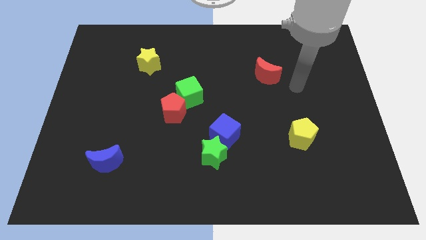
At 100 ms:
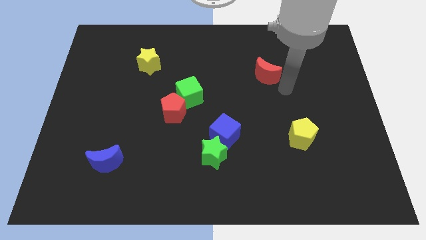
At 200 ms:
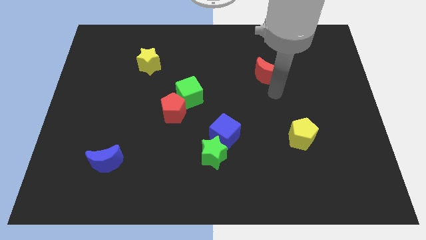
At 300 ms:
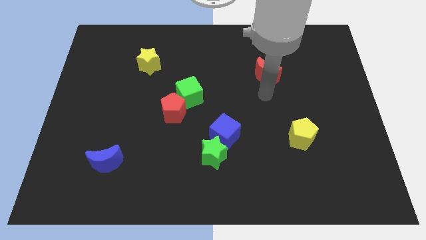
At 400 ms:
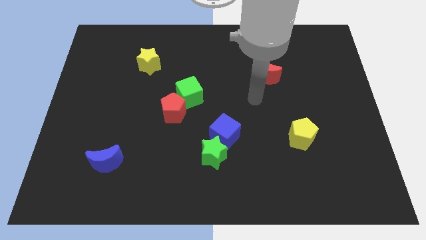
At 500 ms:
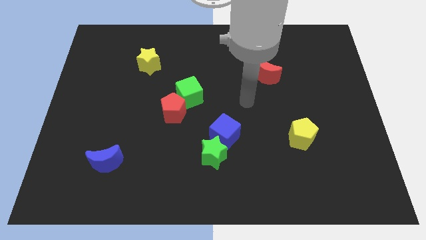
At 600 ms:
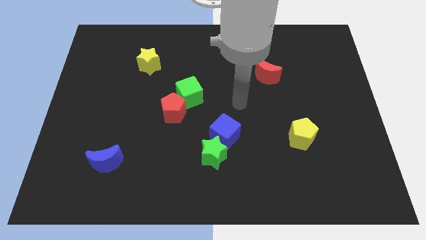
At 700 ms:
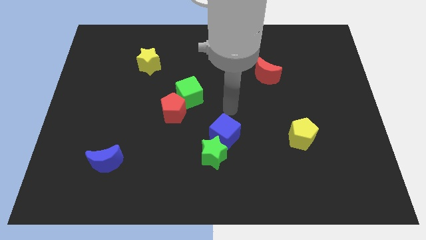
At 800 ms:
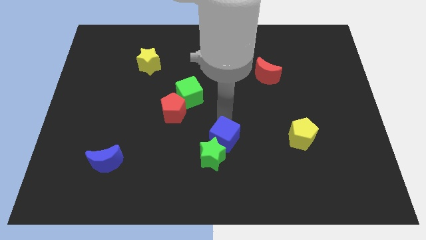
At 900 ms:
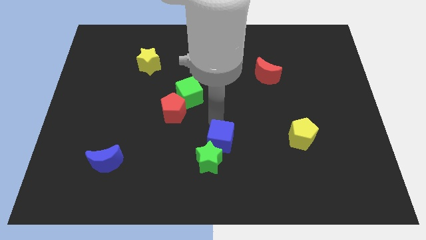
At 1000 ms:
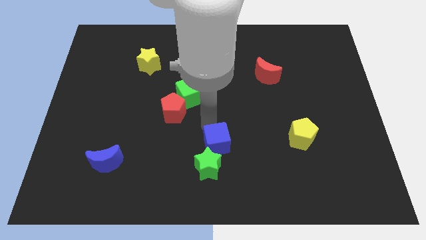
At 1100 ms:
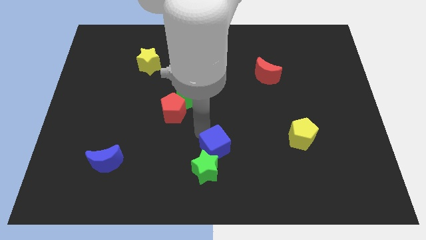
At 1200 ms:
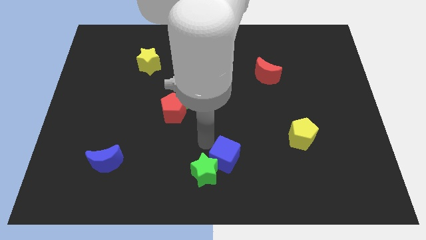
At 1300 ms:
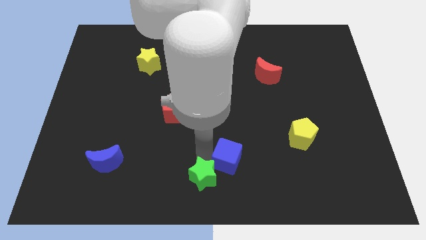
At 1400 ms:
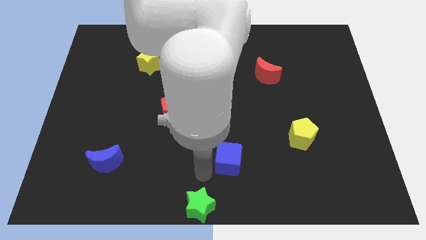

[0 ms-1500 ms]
move the blue cube away from the green star

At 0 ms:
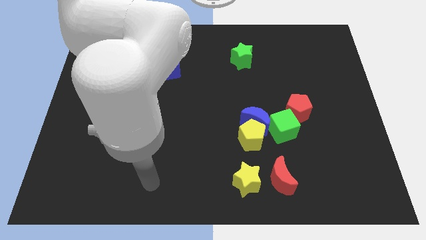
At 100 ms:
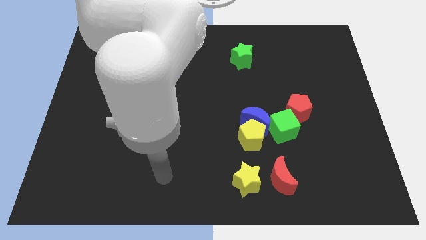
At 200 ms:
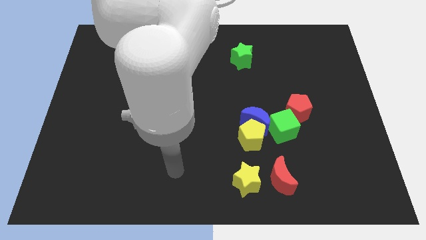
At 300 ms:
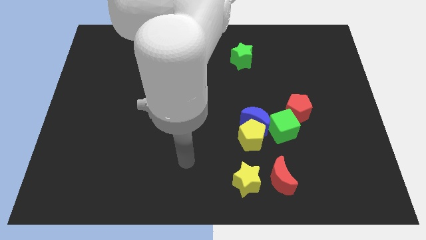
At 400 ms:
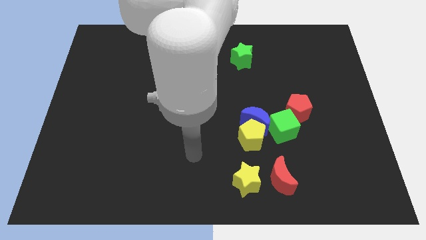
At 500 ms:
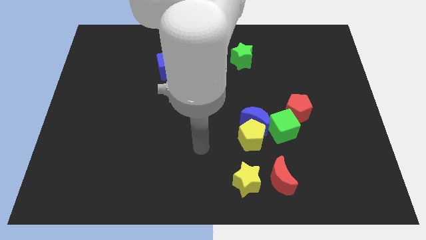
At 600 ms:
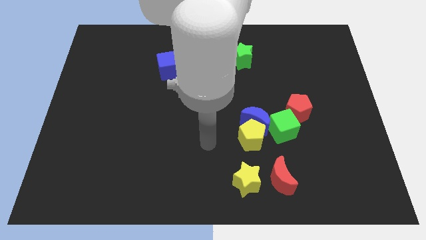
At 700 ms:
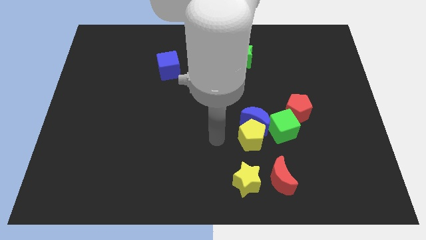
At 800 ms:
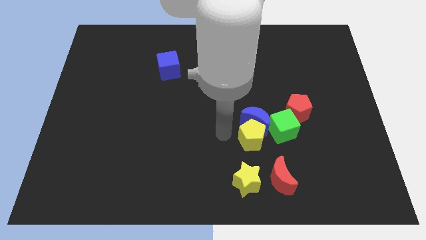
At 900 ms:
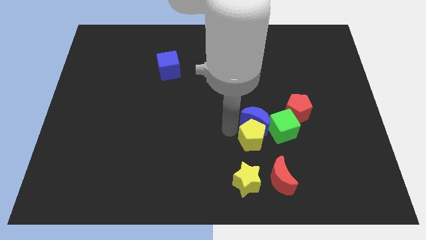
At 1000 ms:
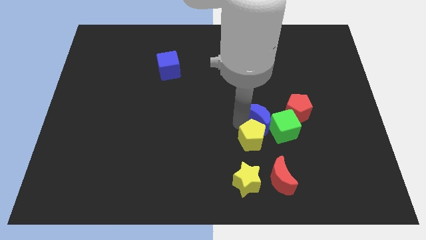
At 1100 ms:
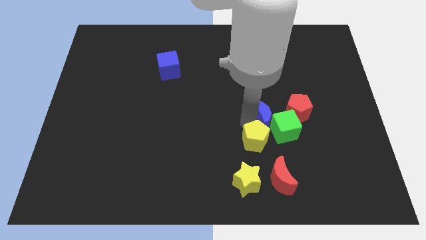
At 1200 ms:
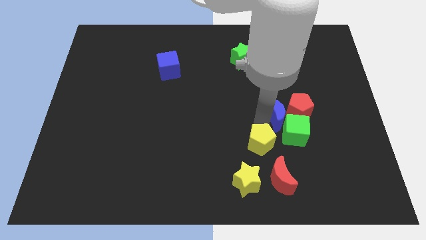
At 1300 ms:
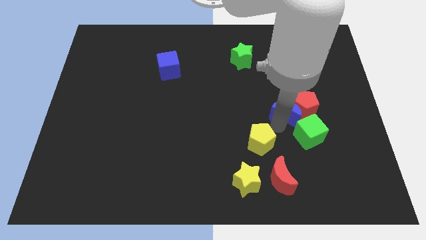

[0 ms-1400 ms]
pull the yellow pentagon apart from the blue moon and green cube

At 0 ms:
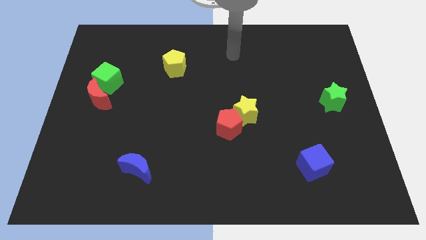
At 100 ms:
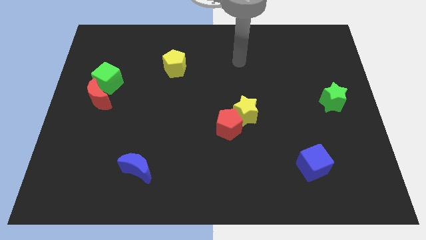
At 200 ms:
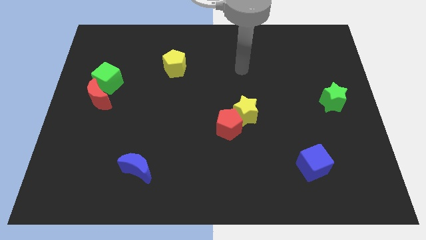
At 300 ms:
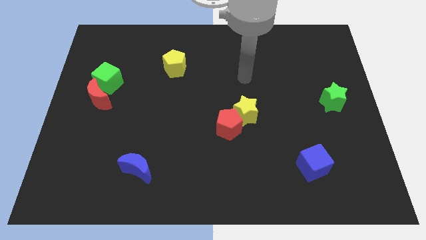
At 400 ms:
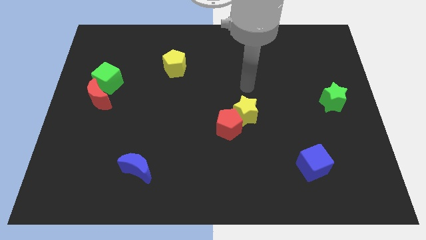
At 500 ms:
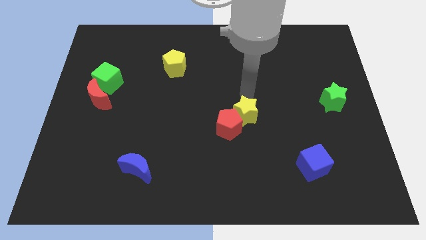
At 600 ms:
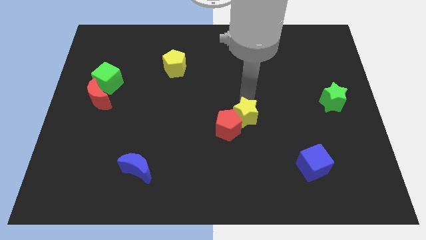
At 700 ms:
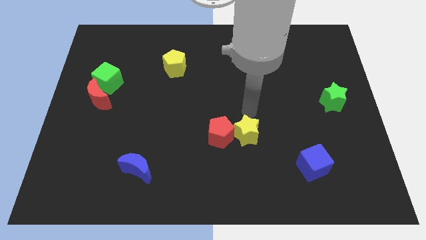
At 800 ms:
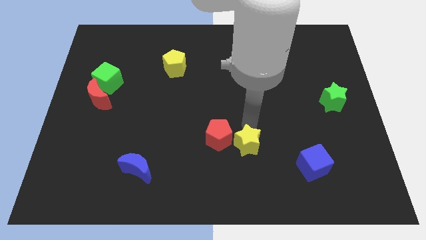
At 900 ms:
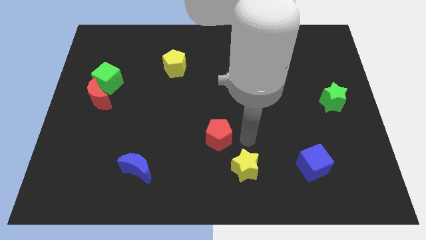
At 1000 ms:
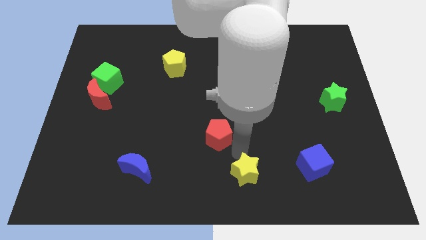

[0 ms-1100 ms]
pull the red pentagon apart from the yellow star

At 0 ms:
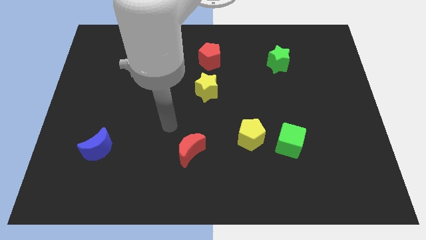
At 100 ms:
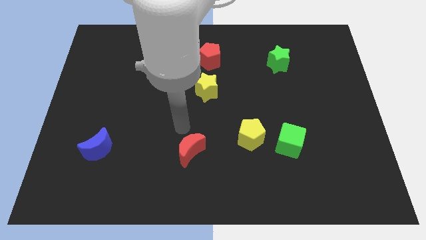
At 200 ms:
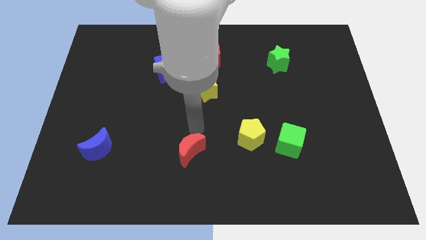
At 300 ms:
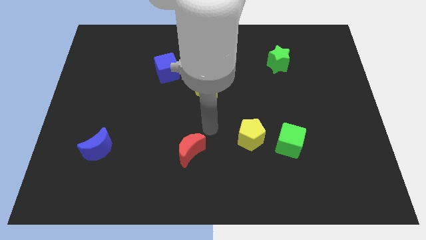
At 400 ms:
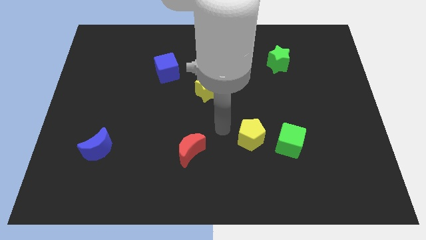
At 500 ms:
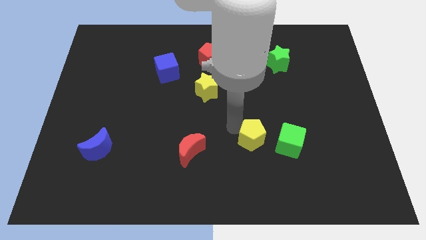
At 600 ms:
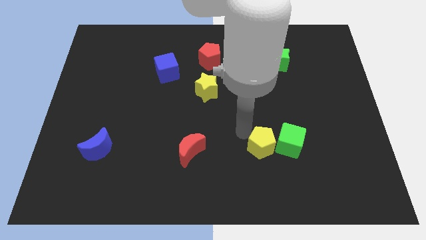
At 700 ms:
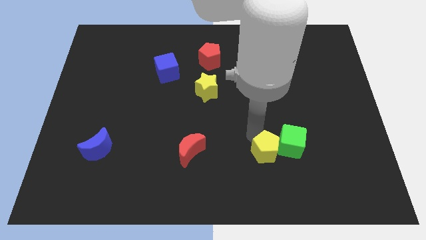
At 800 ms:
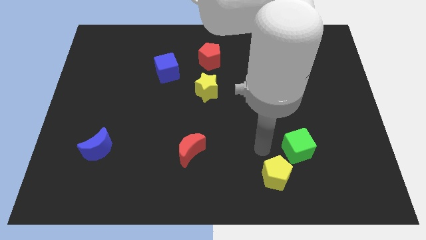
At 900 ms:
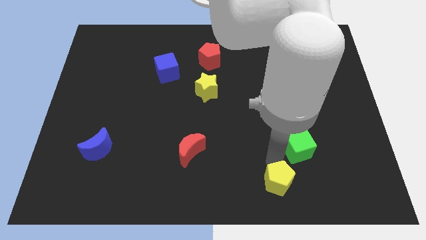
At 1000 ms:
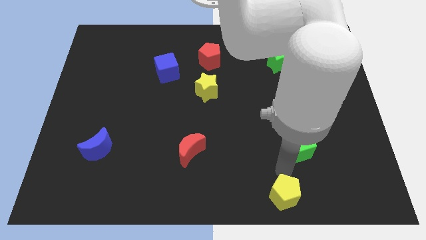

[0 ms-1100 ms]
move the green cube away from the yellow pentagon

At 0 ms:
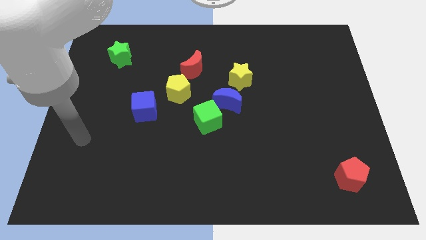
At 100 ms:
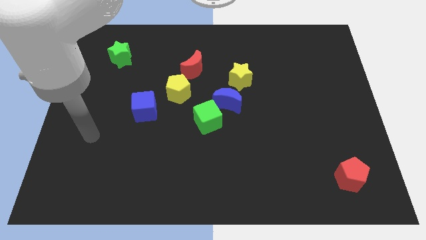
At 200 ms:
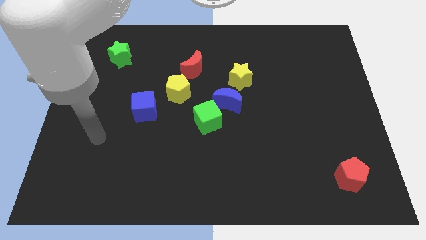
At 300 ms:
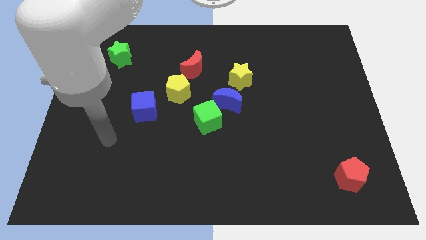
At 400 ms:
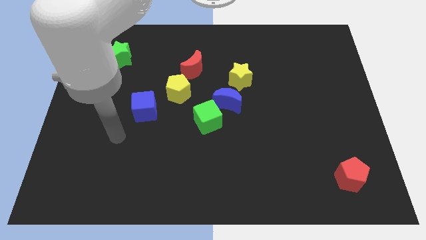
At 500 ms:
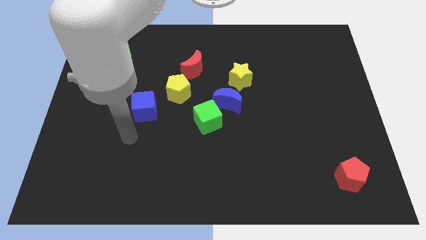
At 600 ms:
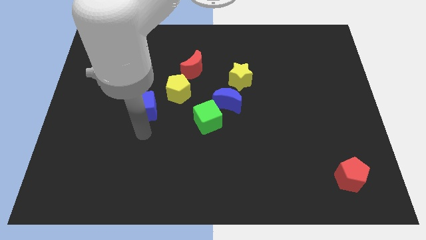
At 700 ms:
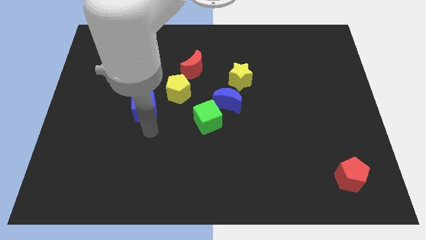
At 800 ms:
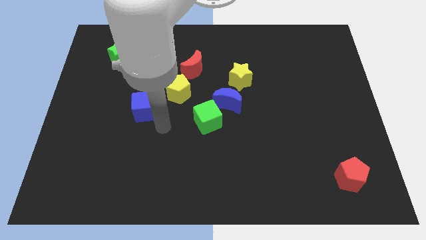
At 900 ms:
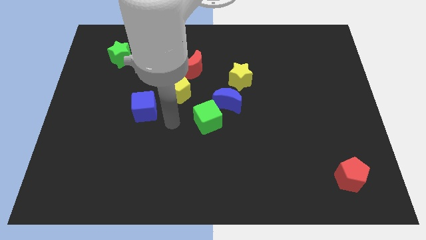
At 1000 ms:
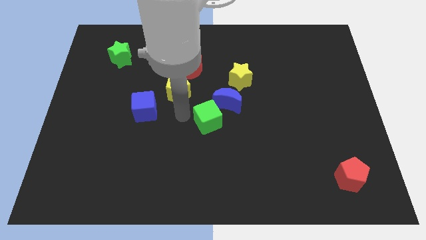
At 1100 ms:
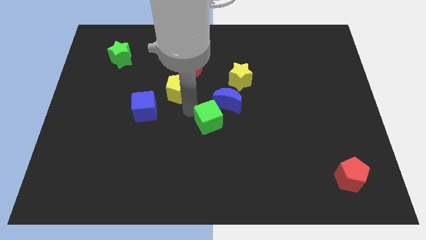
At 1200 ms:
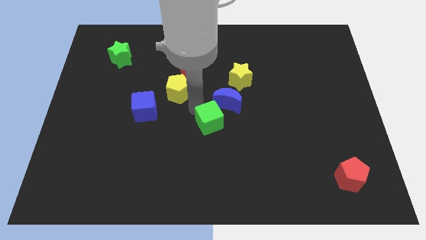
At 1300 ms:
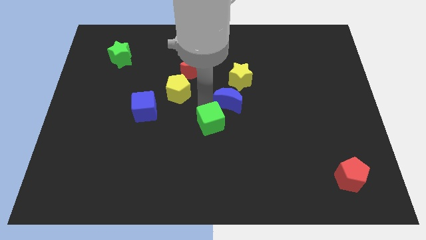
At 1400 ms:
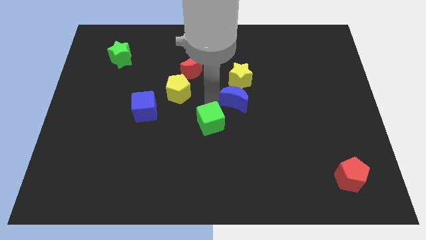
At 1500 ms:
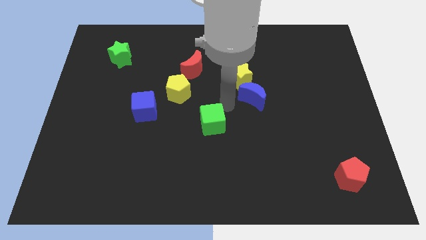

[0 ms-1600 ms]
move the green cube away from the blue moon

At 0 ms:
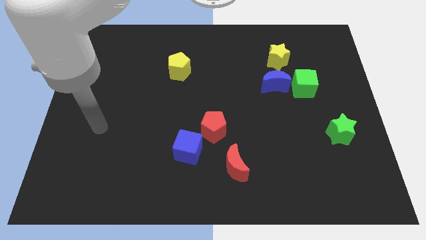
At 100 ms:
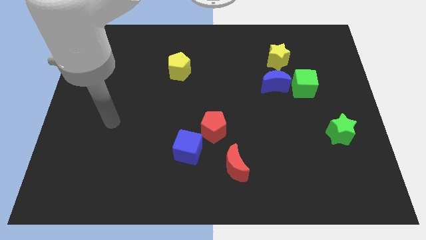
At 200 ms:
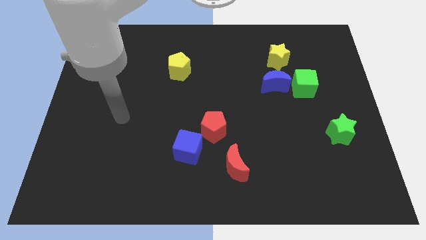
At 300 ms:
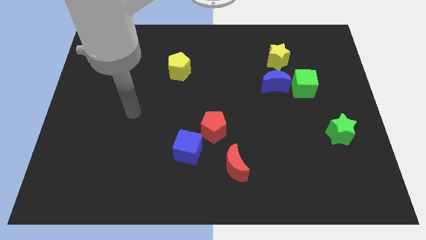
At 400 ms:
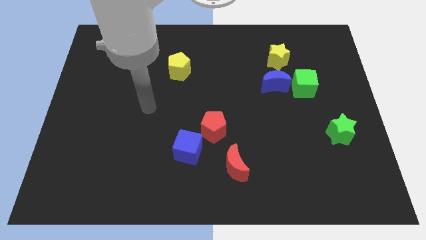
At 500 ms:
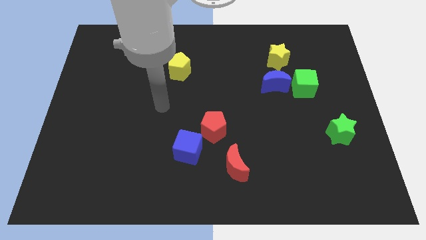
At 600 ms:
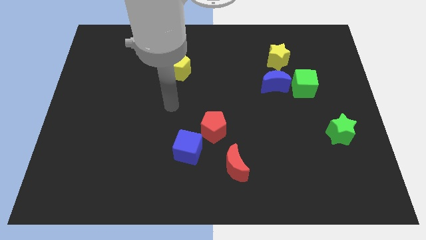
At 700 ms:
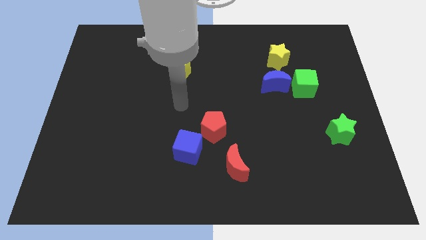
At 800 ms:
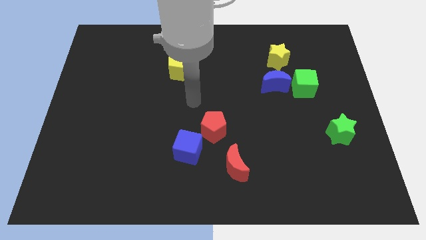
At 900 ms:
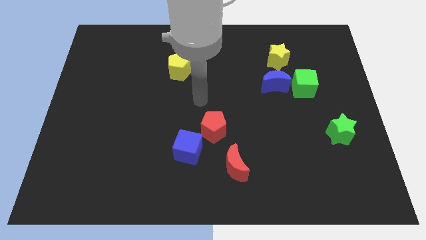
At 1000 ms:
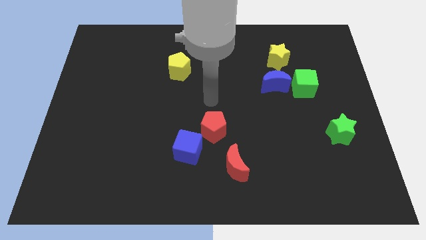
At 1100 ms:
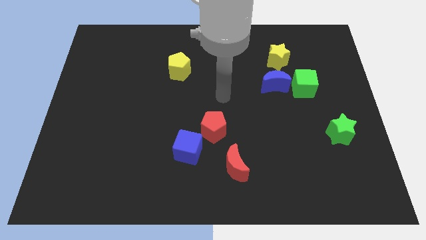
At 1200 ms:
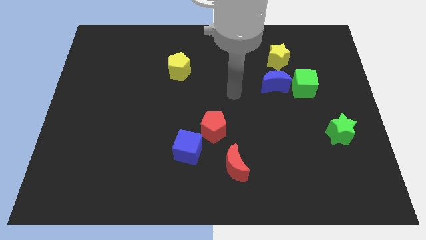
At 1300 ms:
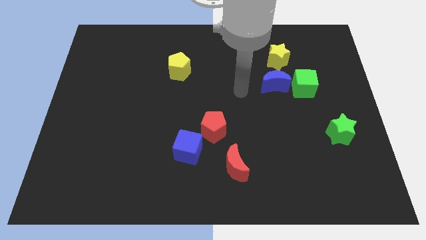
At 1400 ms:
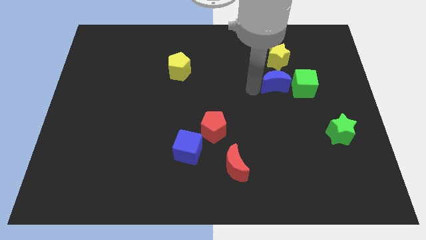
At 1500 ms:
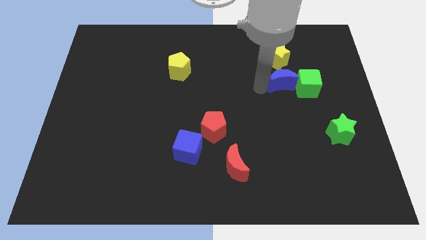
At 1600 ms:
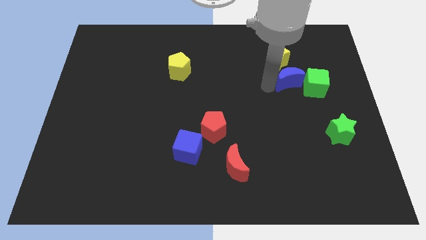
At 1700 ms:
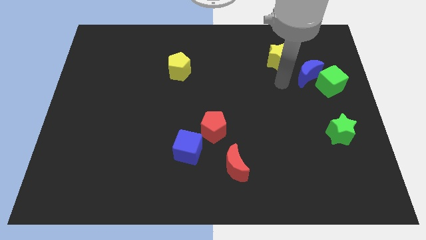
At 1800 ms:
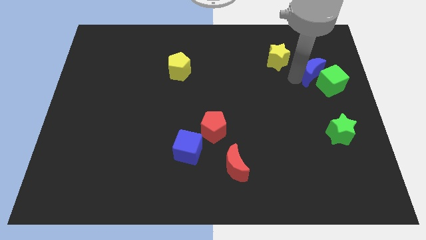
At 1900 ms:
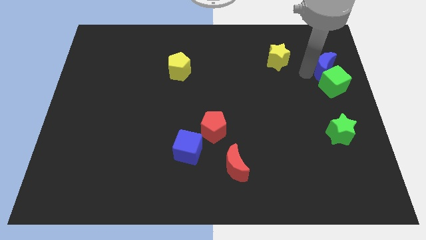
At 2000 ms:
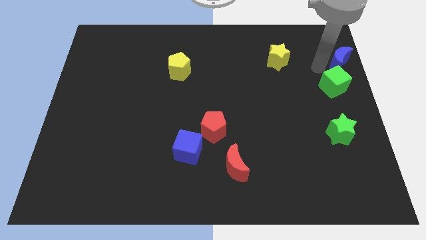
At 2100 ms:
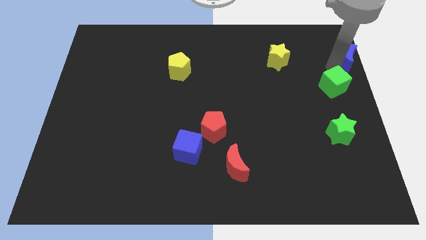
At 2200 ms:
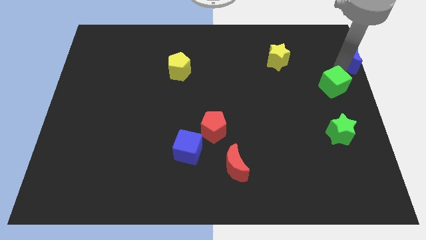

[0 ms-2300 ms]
pull the green cube apart from the blue moon

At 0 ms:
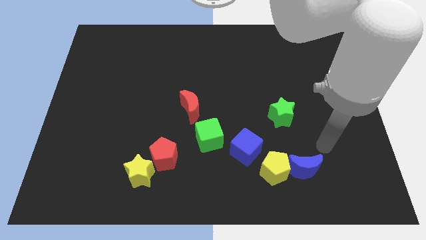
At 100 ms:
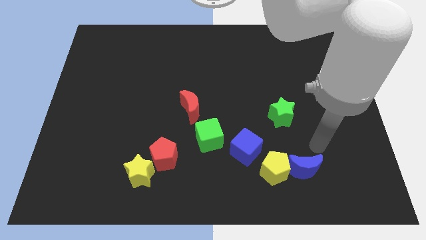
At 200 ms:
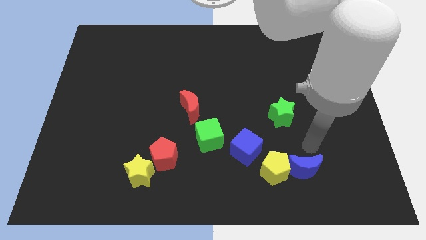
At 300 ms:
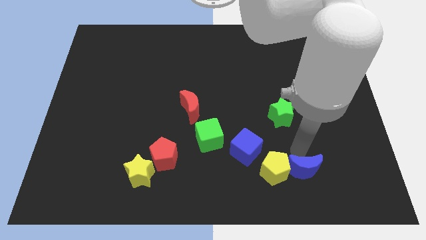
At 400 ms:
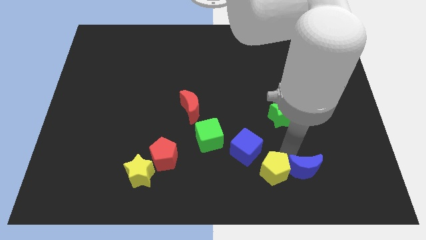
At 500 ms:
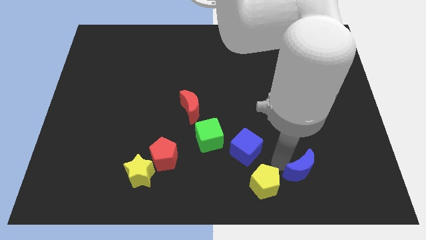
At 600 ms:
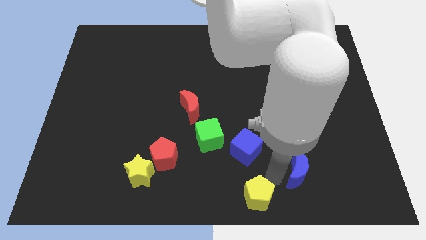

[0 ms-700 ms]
move the blue moon away from the yellow pentagon
